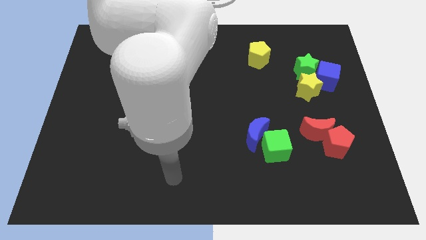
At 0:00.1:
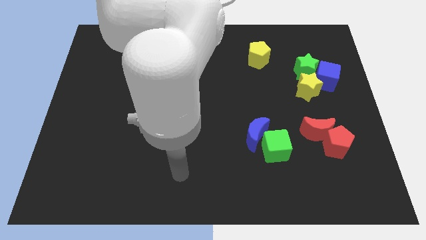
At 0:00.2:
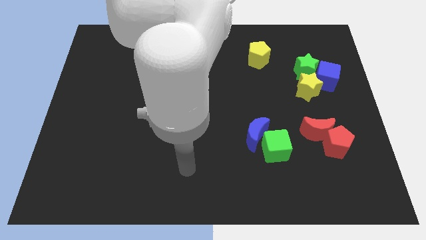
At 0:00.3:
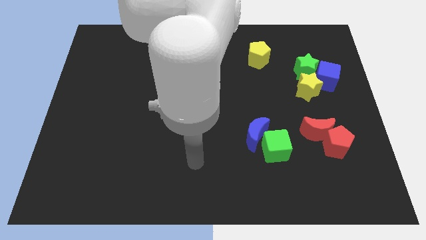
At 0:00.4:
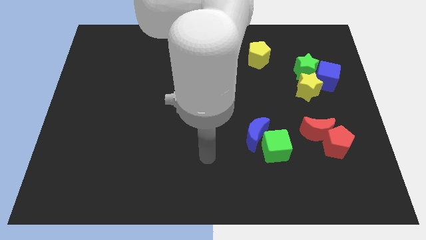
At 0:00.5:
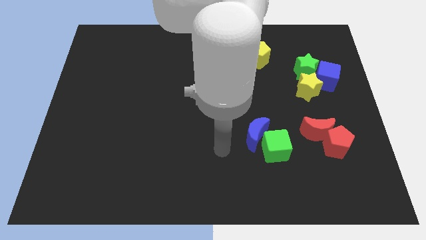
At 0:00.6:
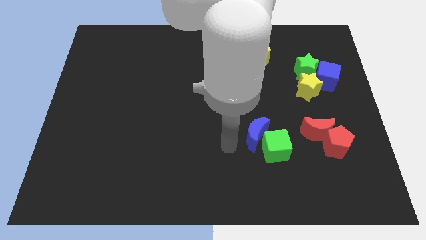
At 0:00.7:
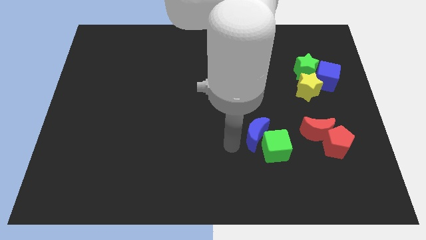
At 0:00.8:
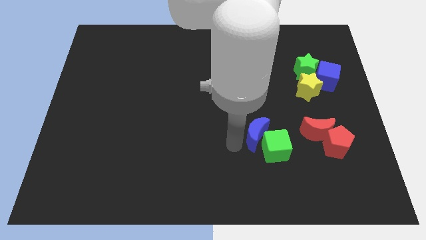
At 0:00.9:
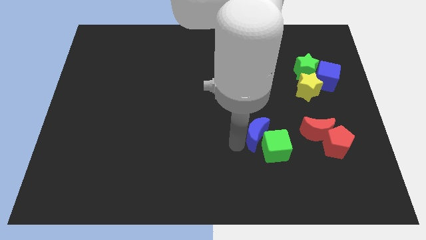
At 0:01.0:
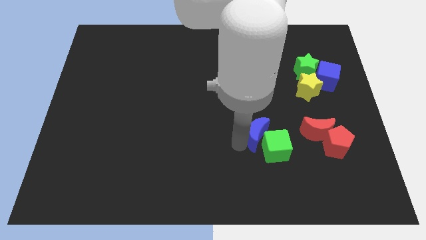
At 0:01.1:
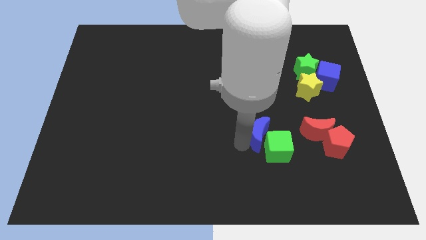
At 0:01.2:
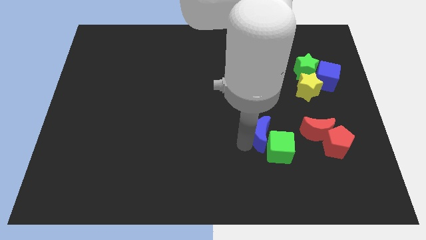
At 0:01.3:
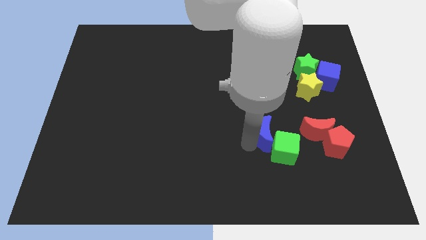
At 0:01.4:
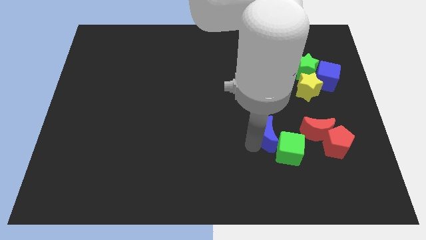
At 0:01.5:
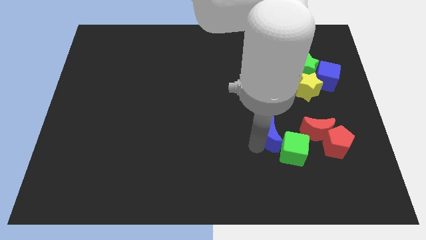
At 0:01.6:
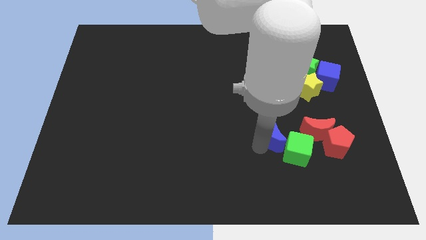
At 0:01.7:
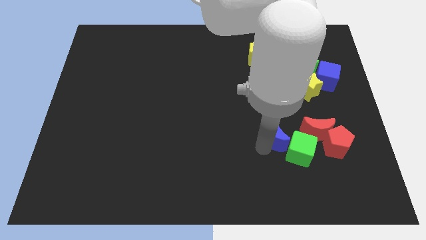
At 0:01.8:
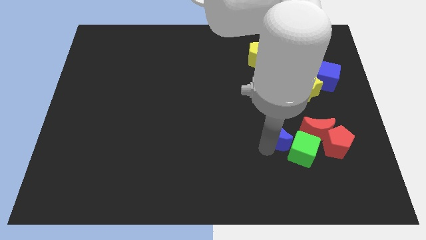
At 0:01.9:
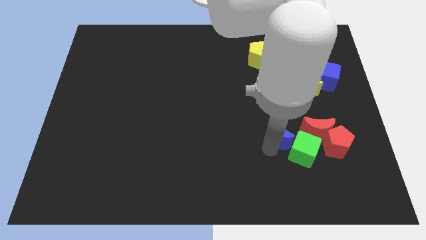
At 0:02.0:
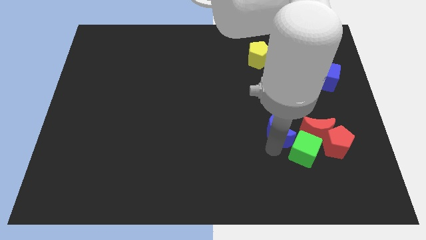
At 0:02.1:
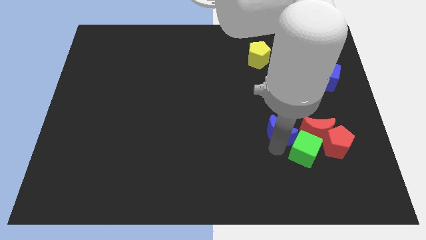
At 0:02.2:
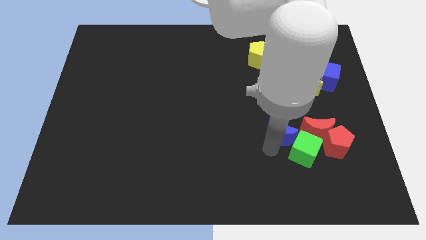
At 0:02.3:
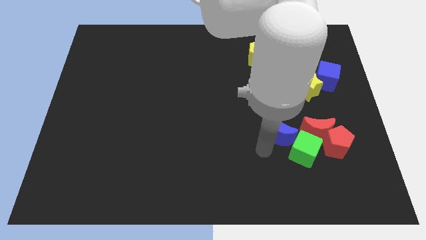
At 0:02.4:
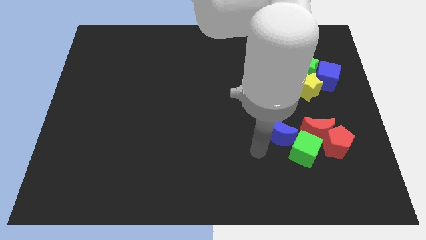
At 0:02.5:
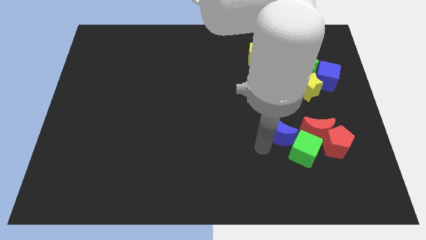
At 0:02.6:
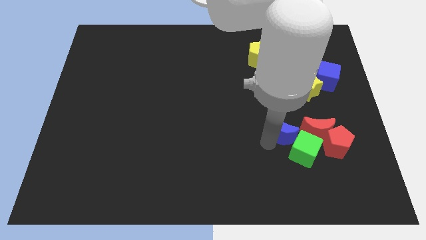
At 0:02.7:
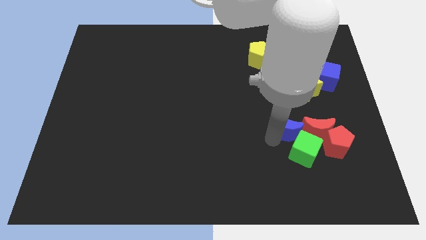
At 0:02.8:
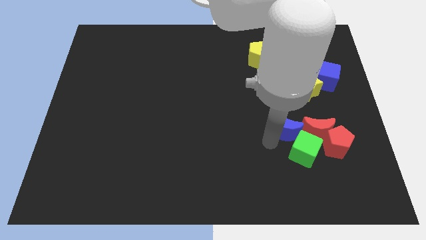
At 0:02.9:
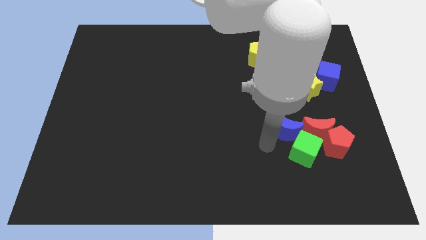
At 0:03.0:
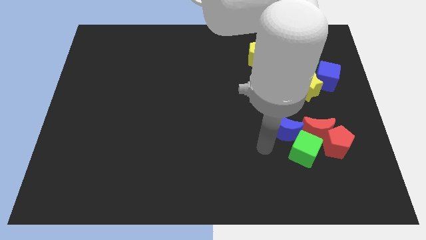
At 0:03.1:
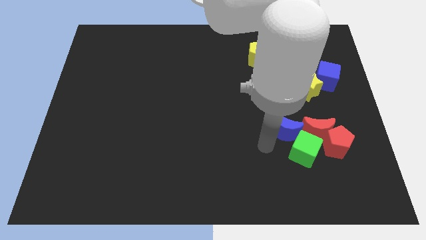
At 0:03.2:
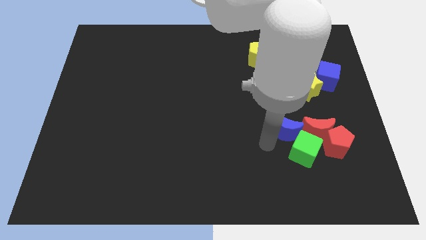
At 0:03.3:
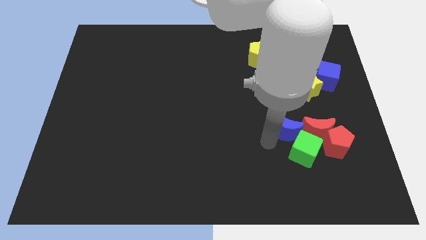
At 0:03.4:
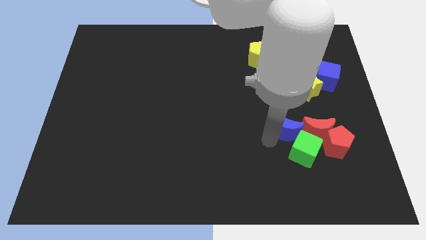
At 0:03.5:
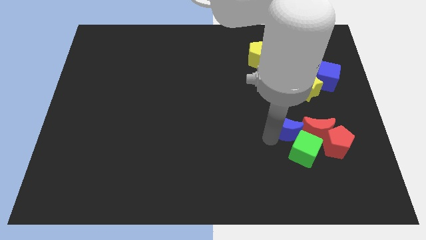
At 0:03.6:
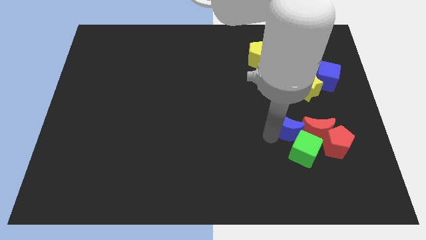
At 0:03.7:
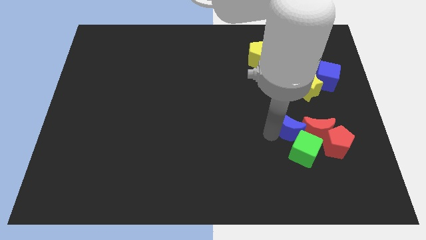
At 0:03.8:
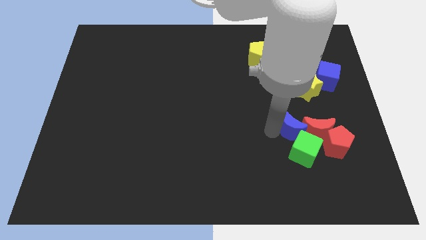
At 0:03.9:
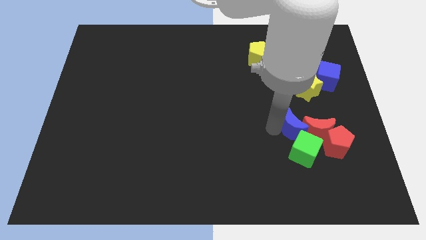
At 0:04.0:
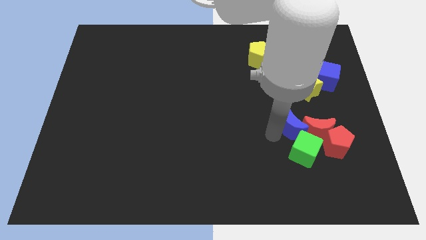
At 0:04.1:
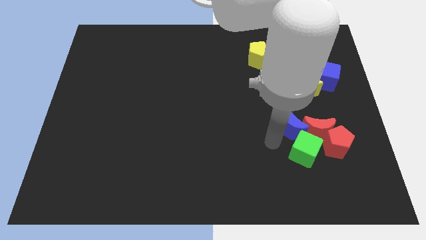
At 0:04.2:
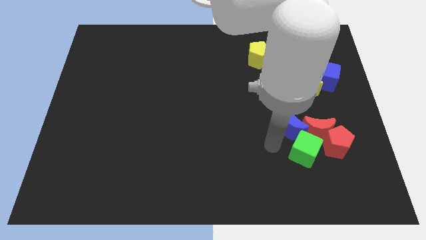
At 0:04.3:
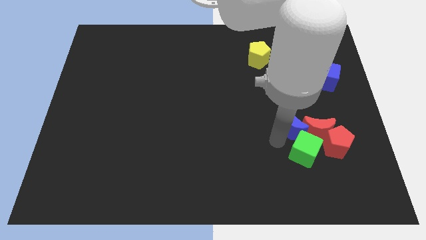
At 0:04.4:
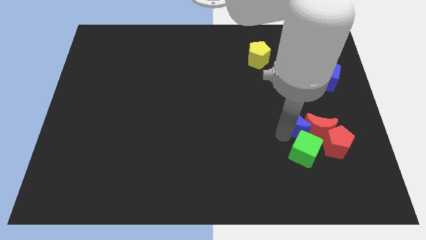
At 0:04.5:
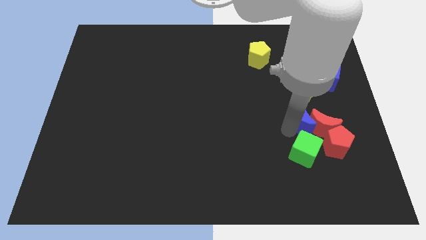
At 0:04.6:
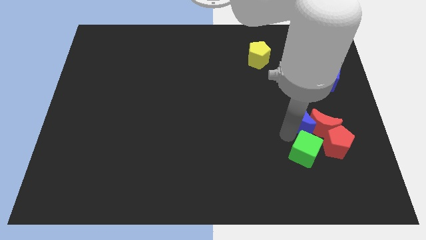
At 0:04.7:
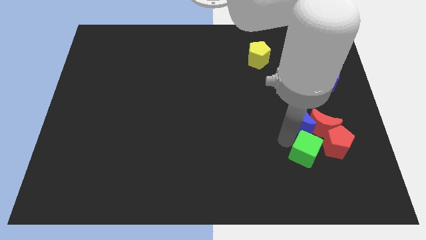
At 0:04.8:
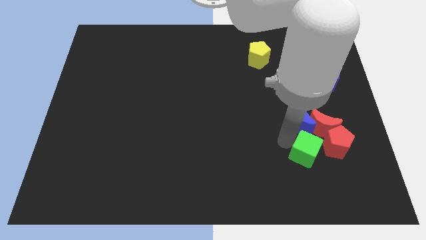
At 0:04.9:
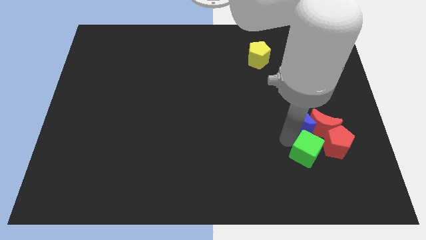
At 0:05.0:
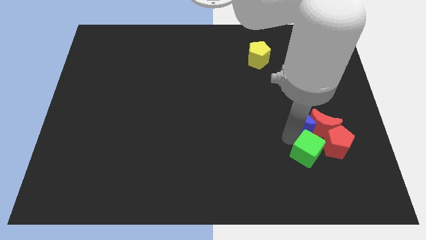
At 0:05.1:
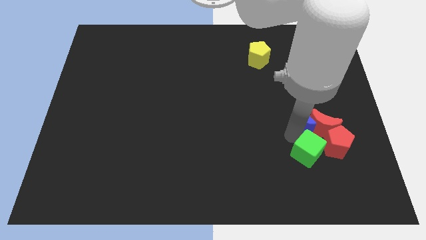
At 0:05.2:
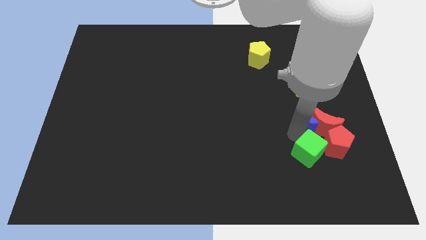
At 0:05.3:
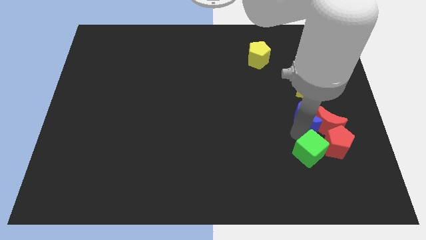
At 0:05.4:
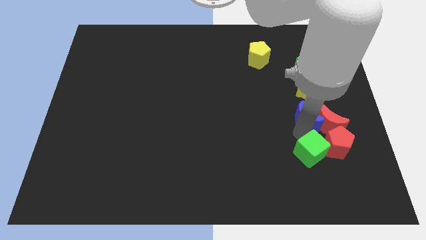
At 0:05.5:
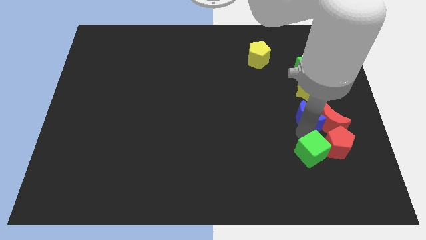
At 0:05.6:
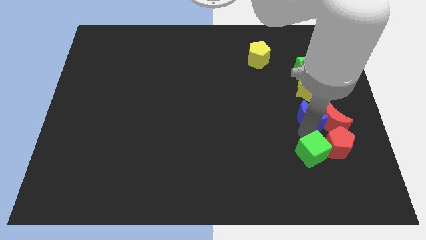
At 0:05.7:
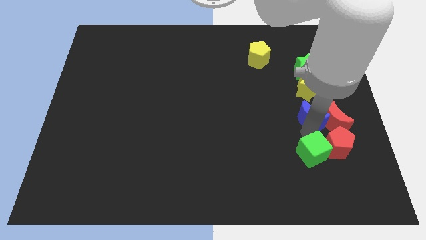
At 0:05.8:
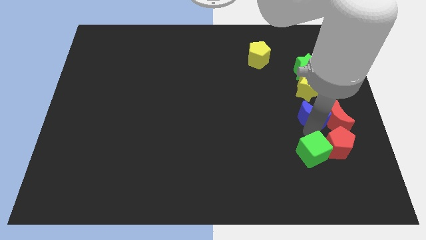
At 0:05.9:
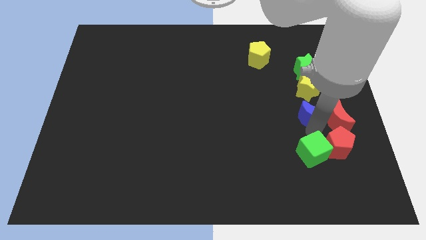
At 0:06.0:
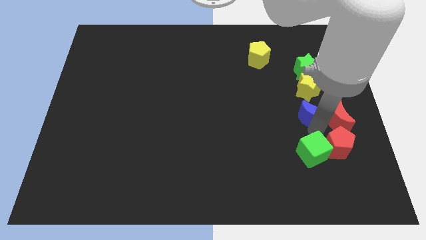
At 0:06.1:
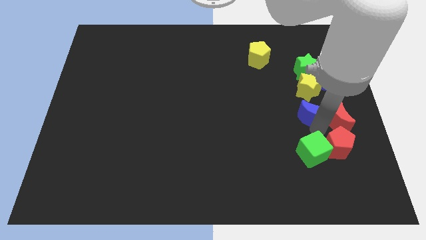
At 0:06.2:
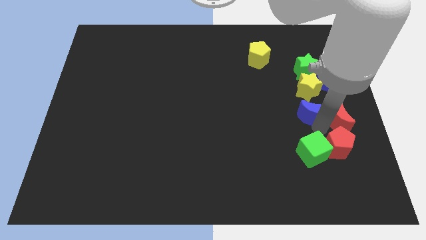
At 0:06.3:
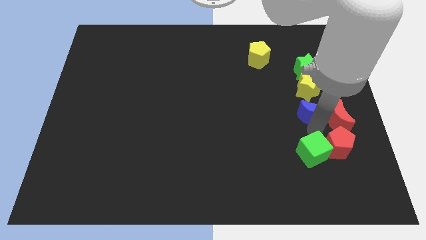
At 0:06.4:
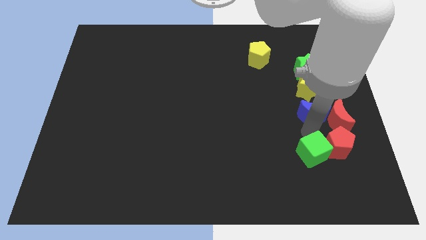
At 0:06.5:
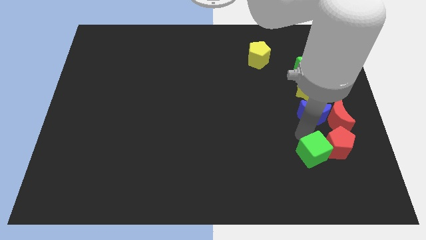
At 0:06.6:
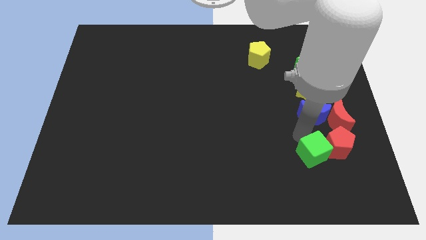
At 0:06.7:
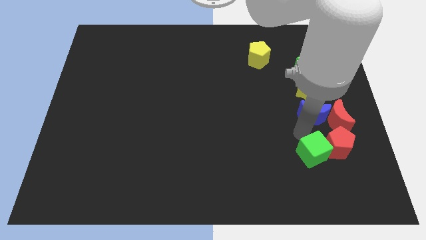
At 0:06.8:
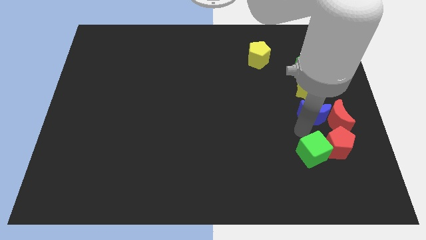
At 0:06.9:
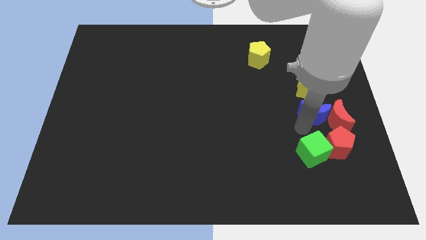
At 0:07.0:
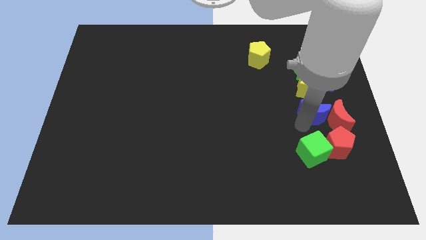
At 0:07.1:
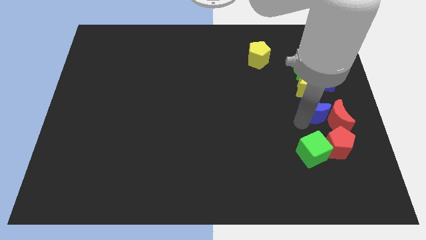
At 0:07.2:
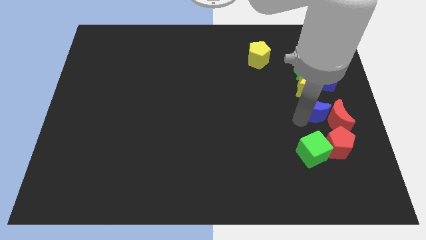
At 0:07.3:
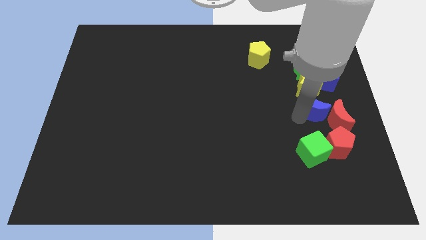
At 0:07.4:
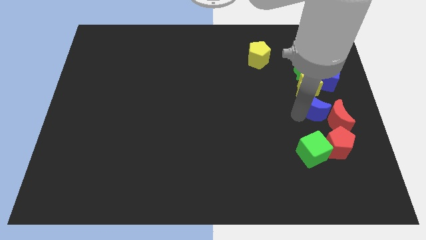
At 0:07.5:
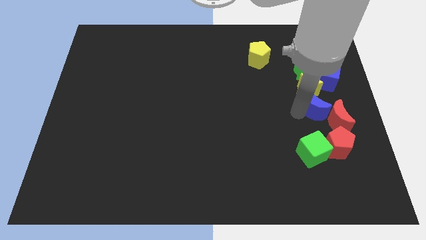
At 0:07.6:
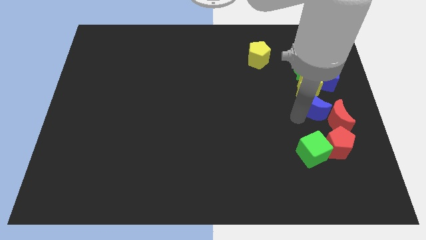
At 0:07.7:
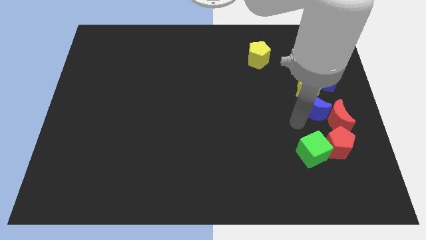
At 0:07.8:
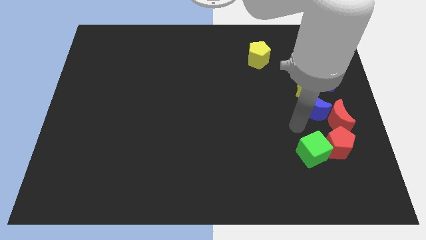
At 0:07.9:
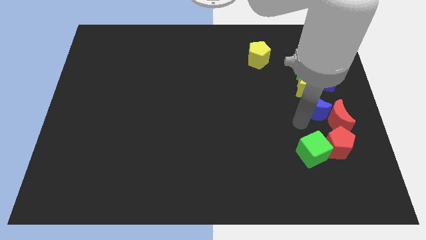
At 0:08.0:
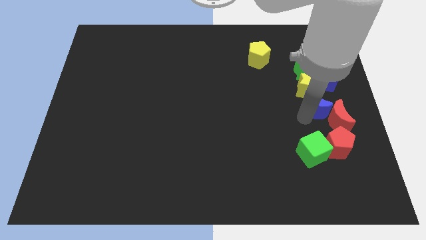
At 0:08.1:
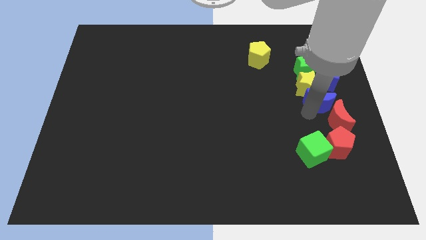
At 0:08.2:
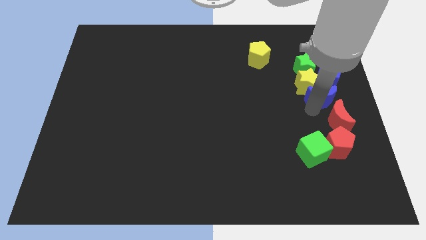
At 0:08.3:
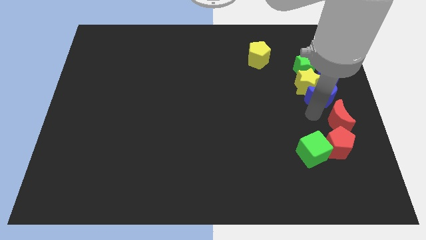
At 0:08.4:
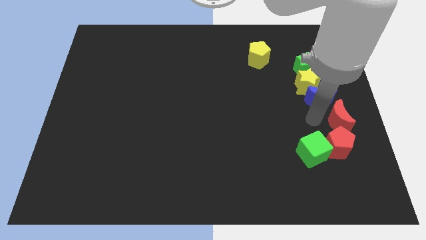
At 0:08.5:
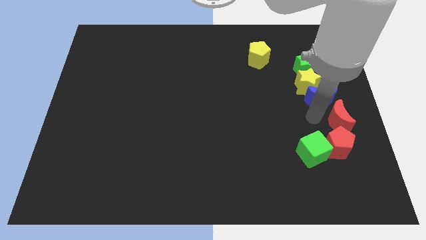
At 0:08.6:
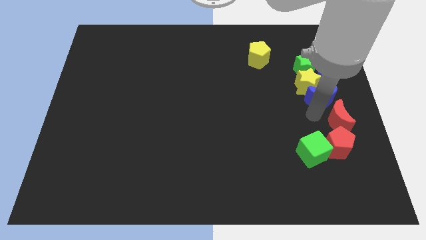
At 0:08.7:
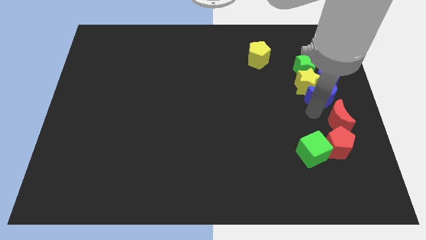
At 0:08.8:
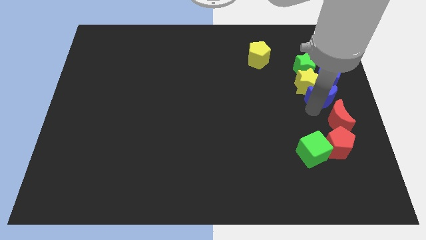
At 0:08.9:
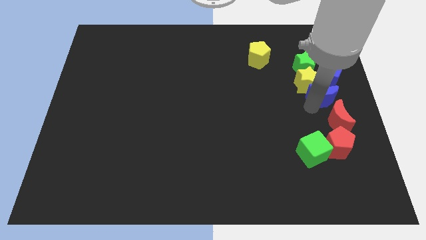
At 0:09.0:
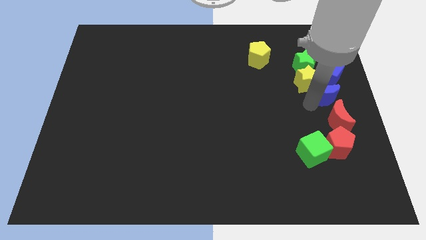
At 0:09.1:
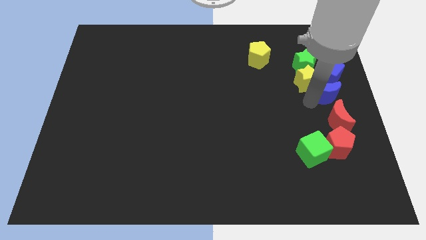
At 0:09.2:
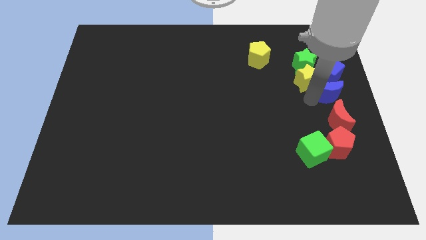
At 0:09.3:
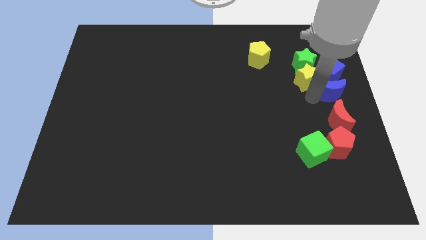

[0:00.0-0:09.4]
put the blue moon towards the blue cube
